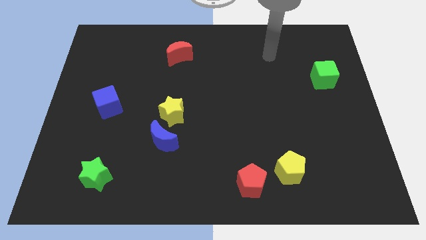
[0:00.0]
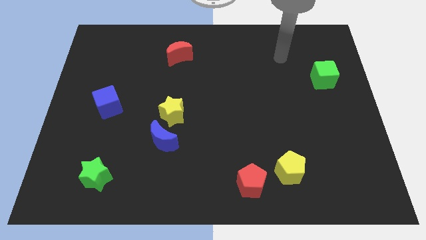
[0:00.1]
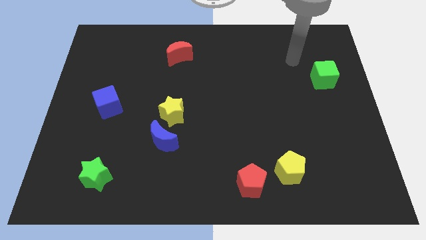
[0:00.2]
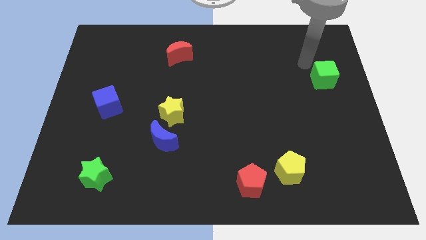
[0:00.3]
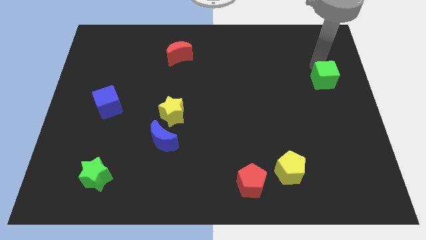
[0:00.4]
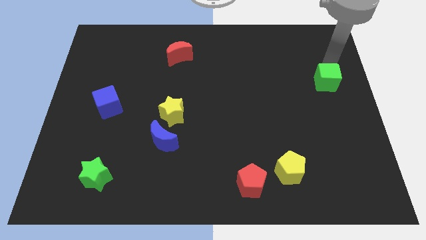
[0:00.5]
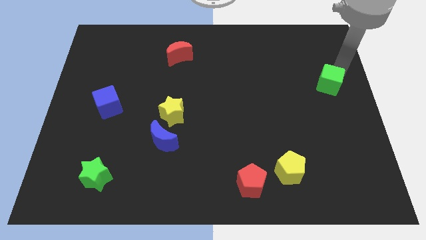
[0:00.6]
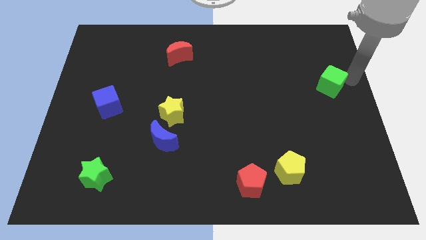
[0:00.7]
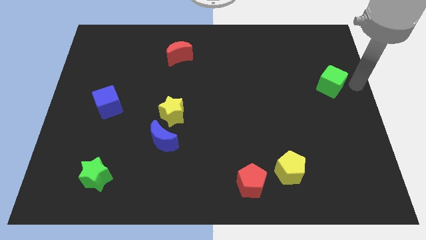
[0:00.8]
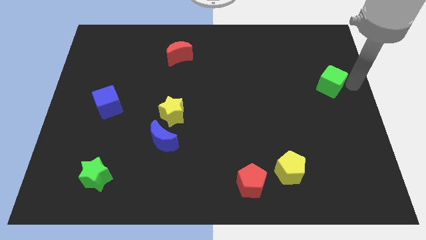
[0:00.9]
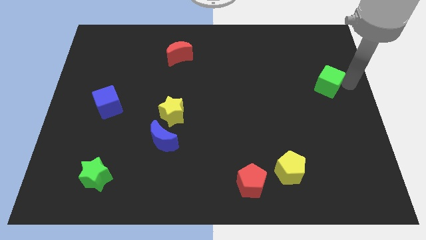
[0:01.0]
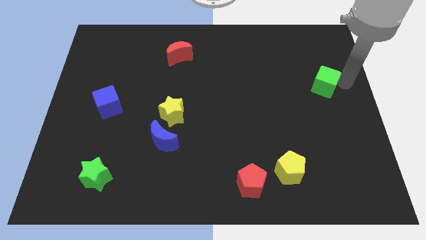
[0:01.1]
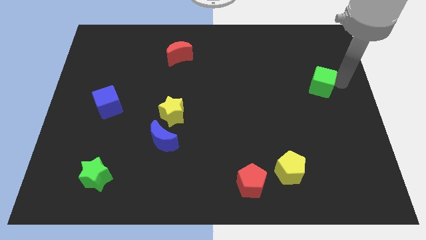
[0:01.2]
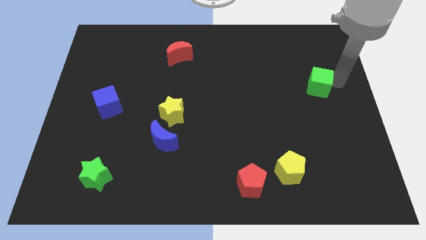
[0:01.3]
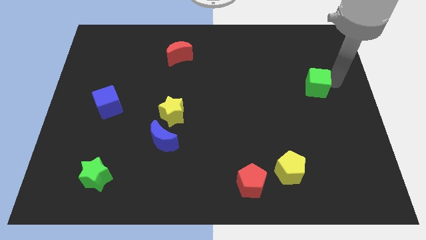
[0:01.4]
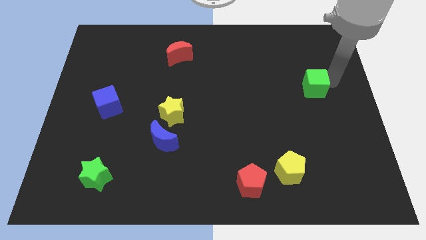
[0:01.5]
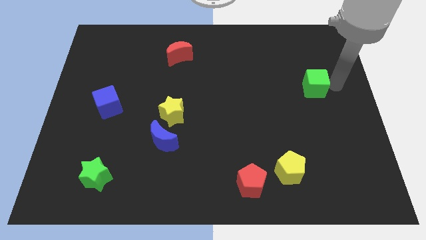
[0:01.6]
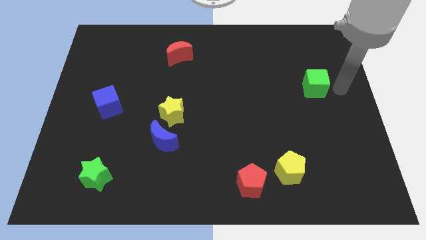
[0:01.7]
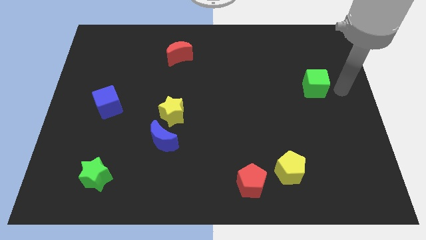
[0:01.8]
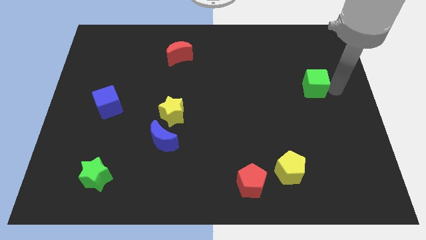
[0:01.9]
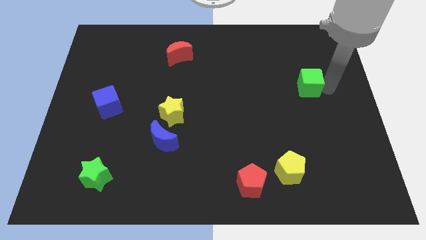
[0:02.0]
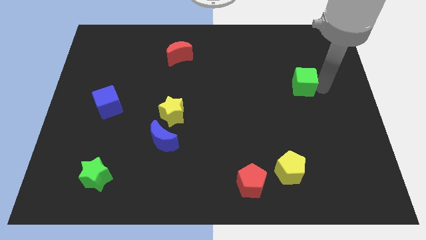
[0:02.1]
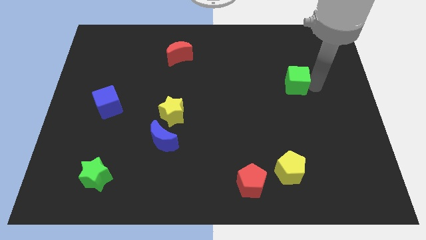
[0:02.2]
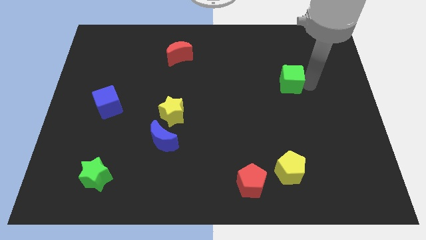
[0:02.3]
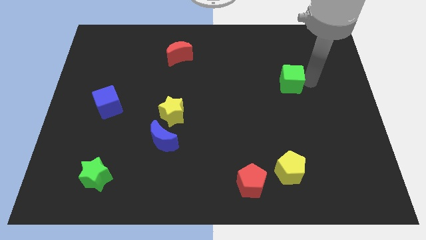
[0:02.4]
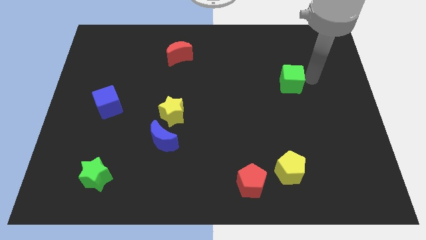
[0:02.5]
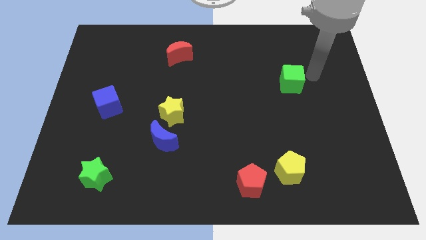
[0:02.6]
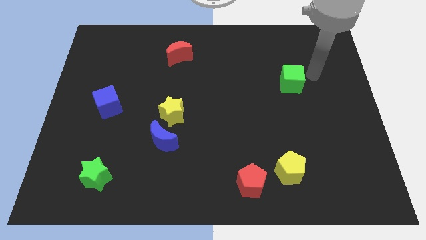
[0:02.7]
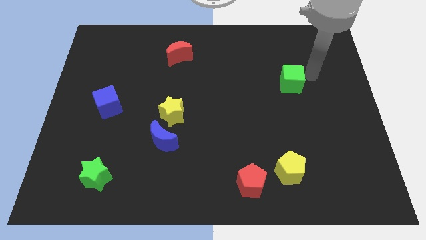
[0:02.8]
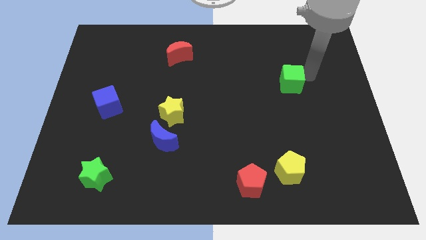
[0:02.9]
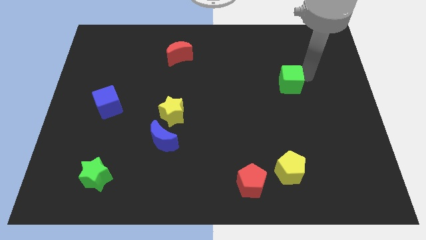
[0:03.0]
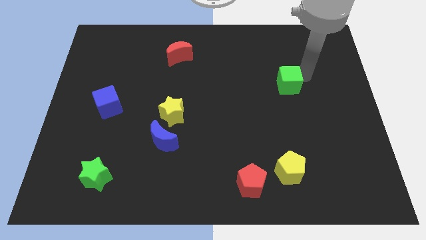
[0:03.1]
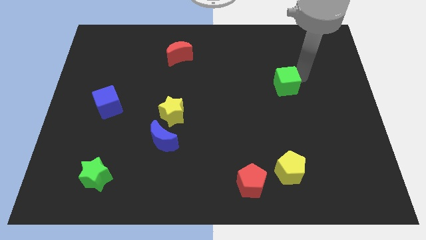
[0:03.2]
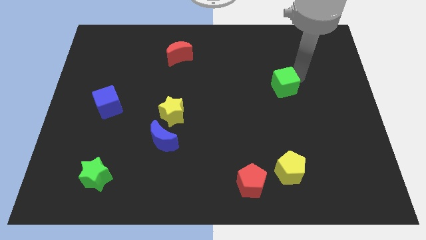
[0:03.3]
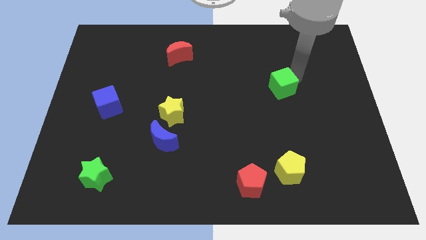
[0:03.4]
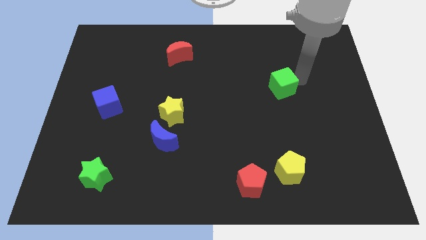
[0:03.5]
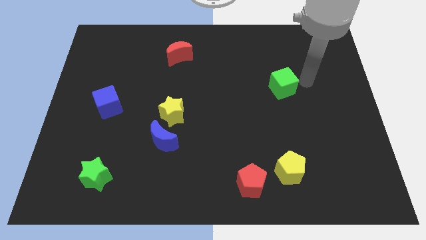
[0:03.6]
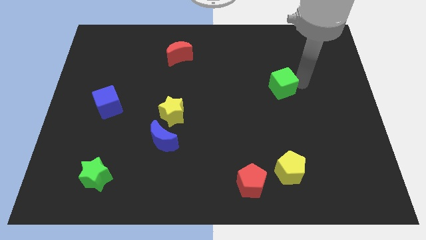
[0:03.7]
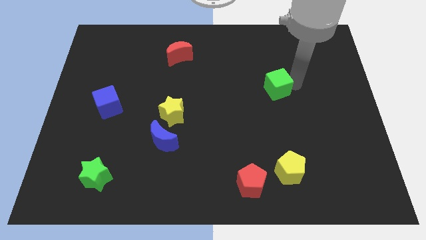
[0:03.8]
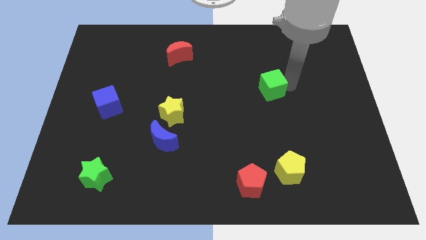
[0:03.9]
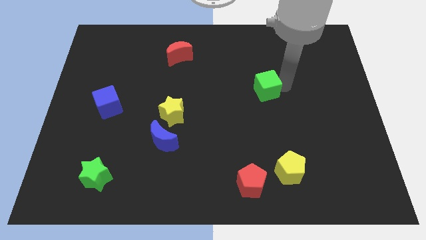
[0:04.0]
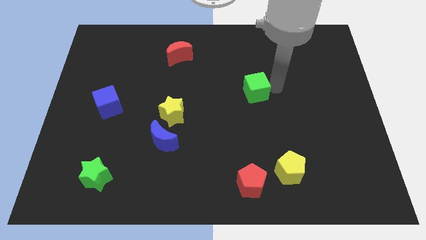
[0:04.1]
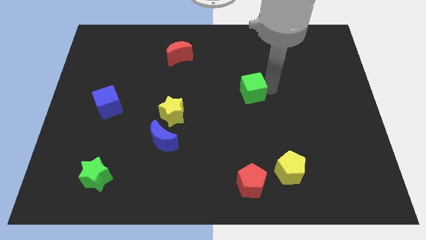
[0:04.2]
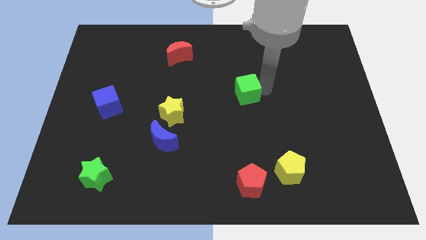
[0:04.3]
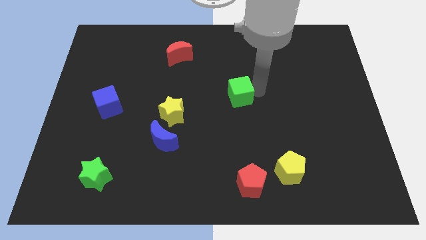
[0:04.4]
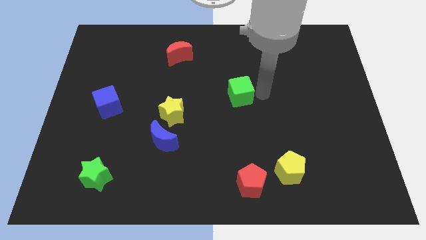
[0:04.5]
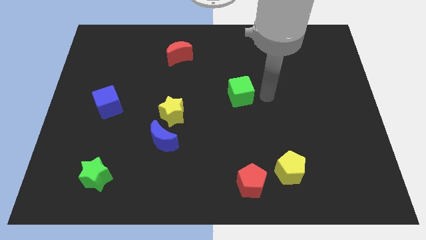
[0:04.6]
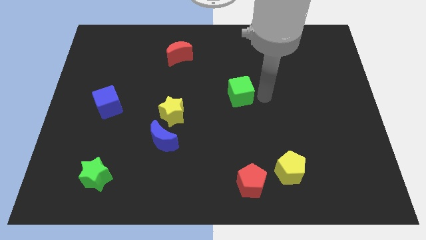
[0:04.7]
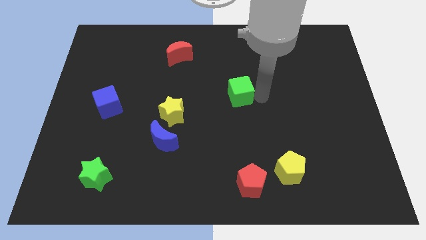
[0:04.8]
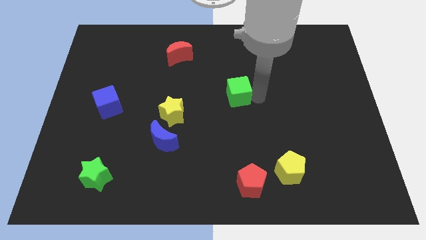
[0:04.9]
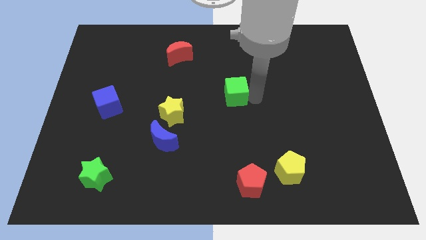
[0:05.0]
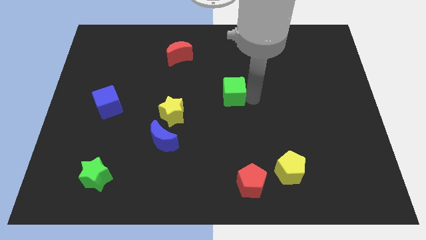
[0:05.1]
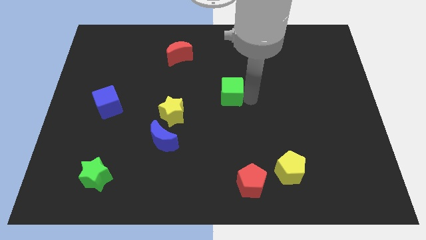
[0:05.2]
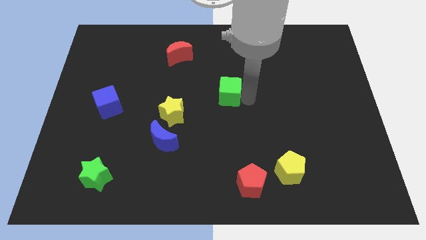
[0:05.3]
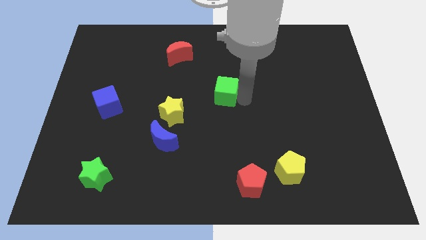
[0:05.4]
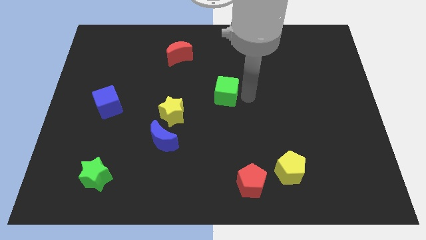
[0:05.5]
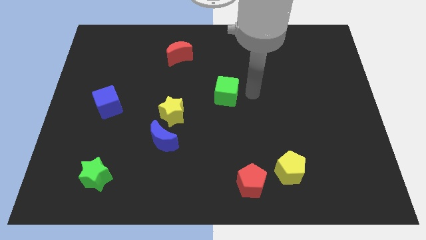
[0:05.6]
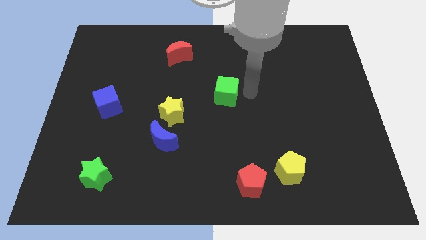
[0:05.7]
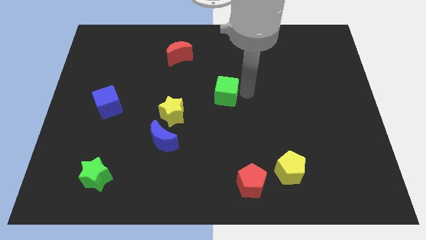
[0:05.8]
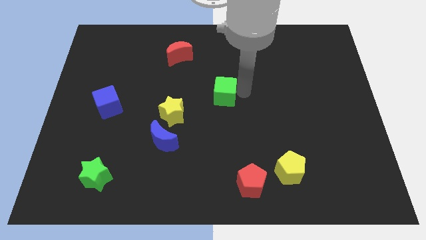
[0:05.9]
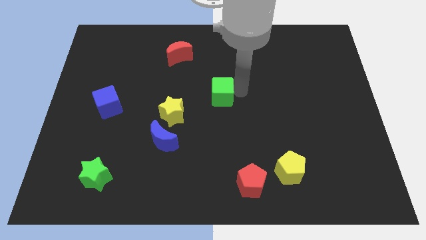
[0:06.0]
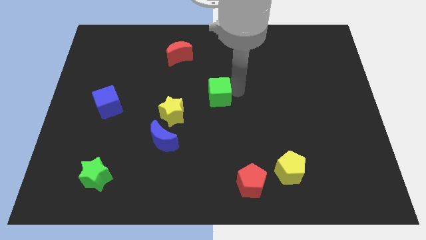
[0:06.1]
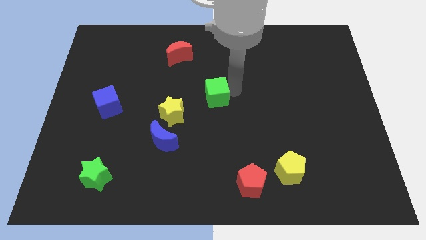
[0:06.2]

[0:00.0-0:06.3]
push the green cube diagonally up and to the right of the yellow star

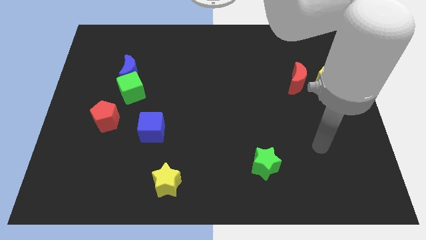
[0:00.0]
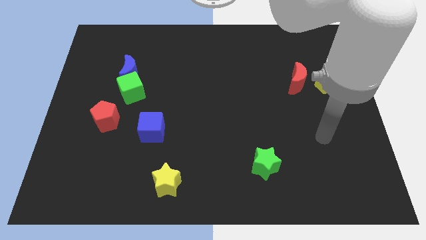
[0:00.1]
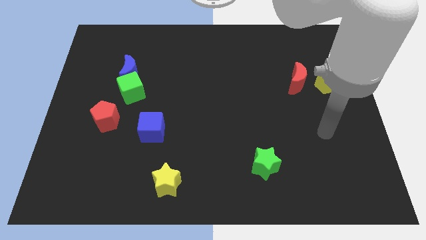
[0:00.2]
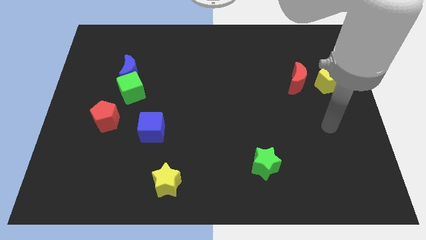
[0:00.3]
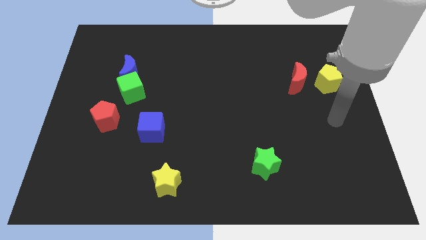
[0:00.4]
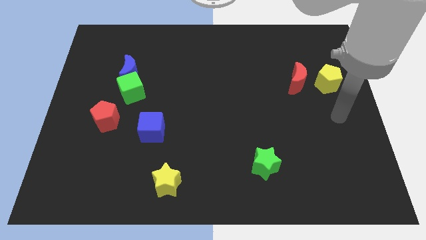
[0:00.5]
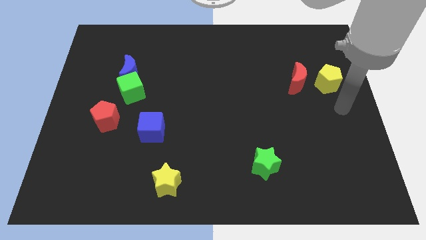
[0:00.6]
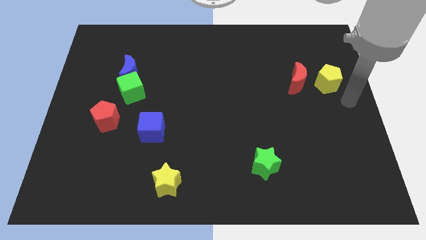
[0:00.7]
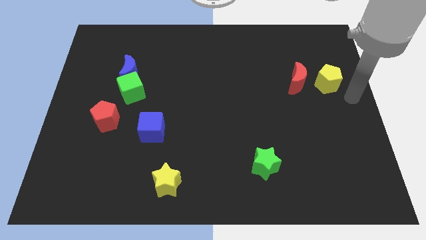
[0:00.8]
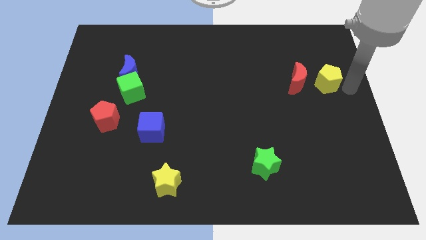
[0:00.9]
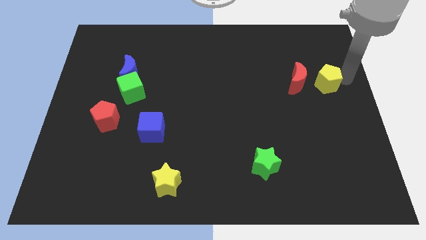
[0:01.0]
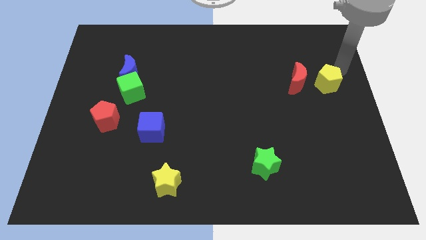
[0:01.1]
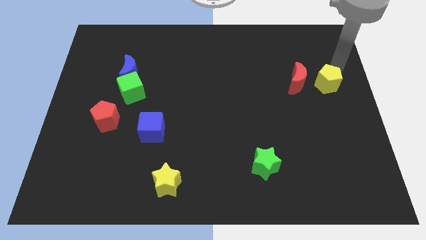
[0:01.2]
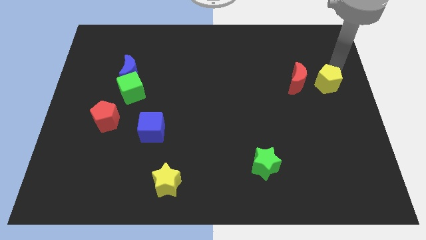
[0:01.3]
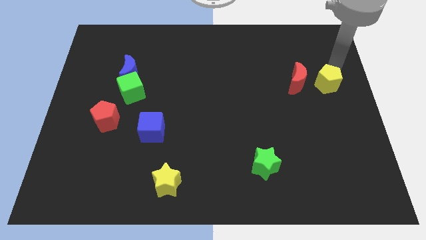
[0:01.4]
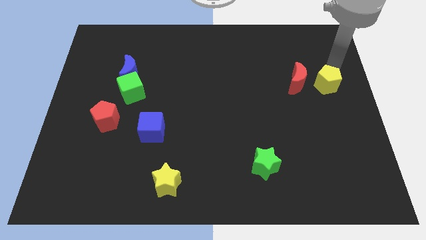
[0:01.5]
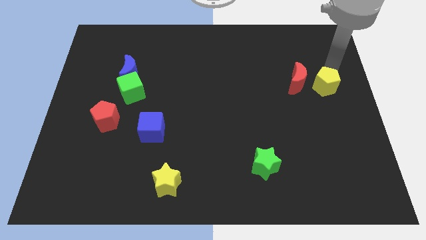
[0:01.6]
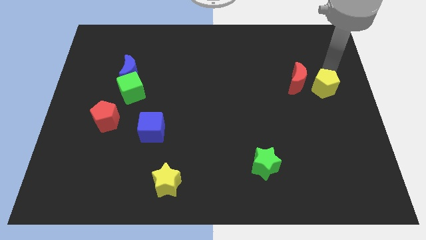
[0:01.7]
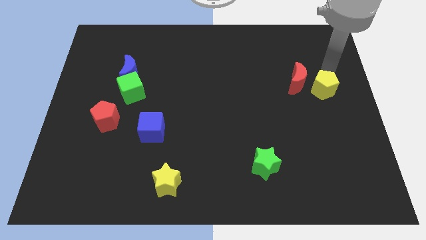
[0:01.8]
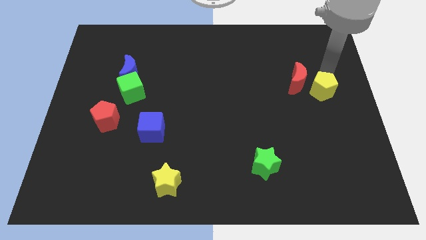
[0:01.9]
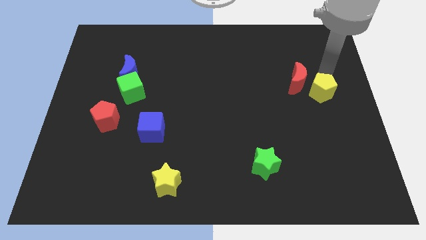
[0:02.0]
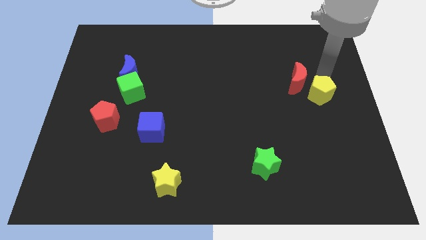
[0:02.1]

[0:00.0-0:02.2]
slide the yellow pentagon below the red moon
